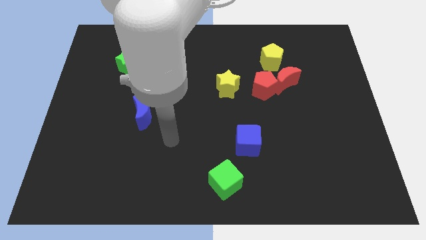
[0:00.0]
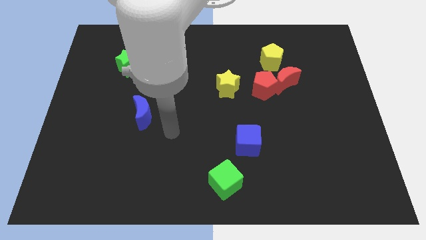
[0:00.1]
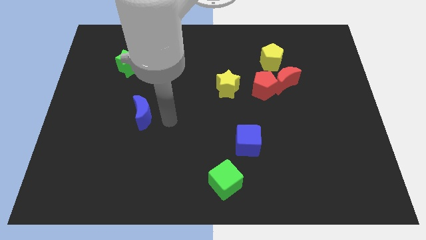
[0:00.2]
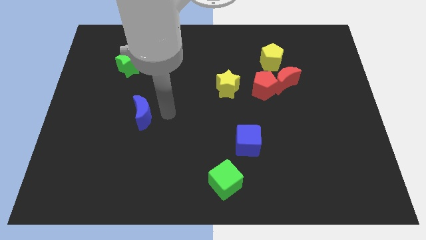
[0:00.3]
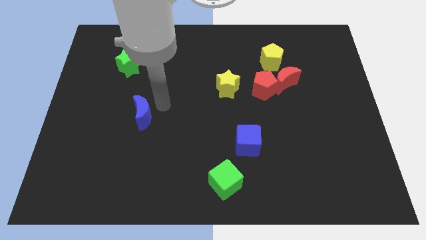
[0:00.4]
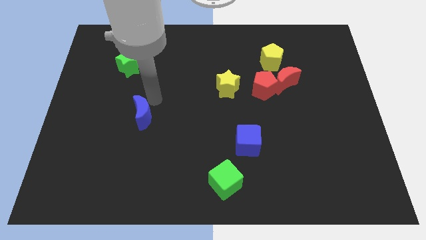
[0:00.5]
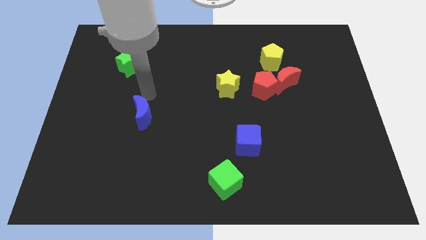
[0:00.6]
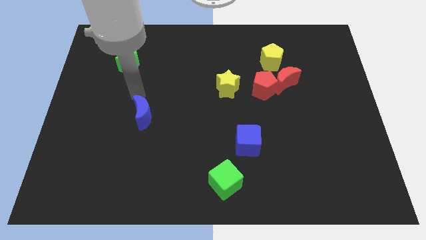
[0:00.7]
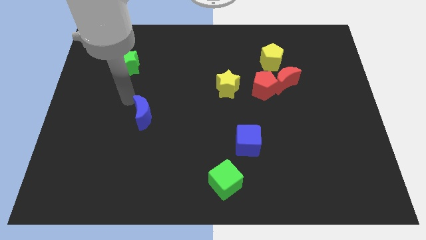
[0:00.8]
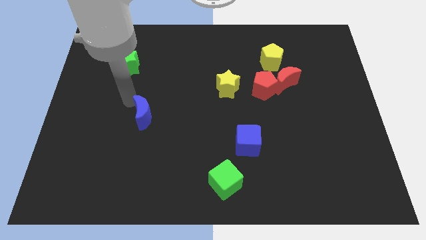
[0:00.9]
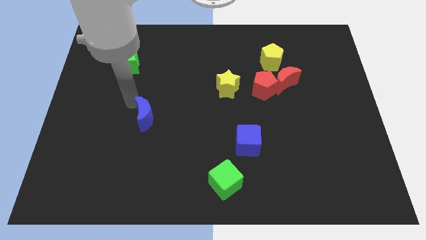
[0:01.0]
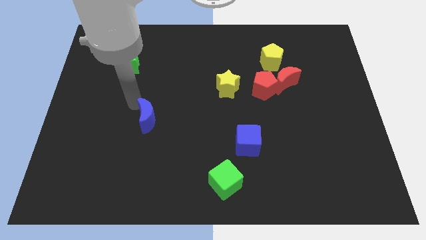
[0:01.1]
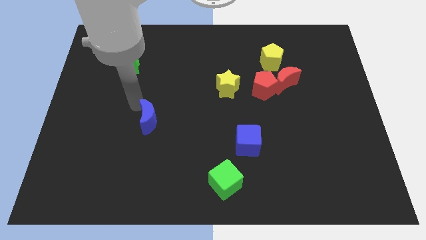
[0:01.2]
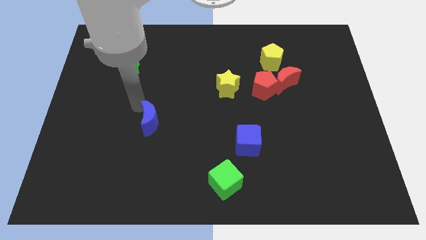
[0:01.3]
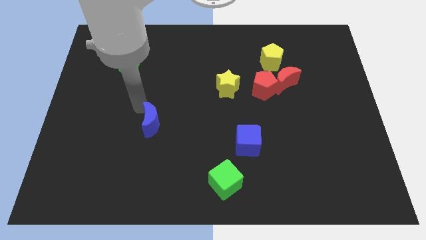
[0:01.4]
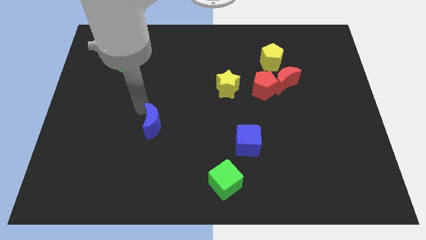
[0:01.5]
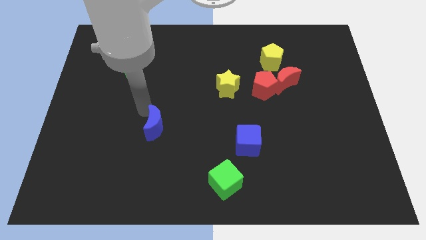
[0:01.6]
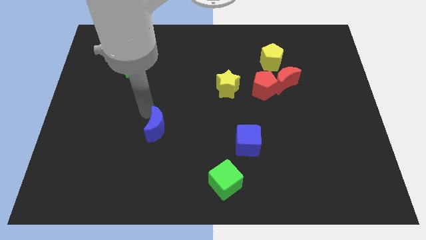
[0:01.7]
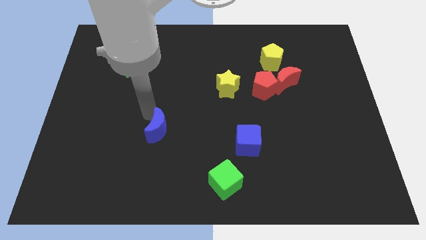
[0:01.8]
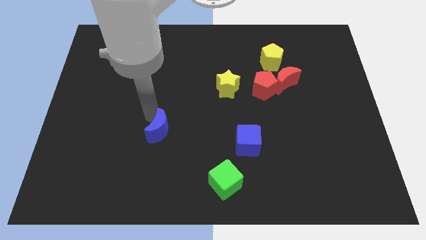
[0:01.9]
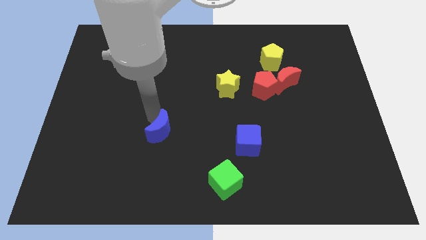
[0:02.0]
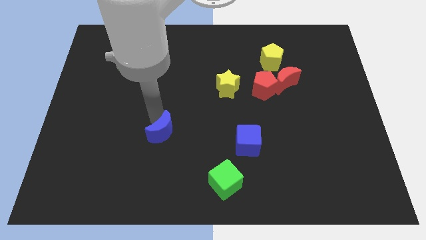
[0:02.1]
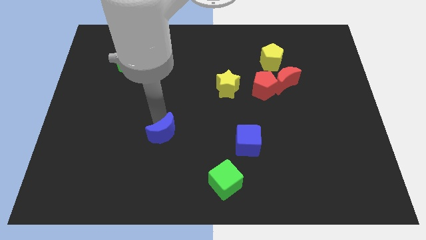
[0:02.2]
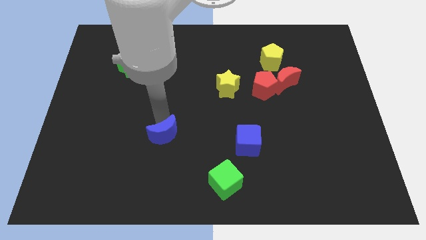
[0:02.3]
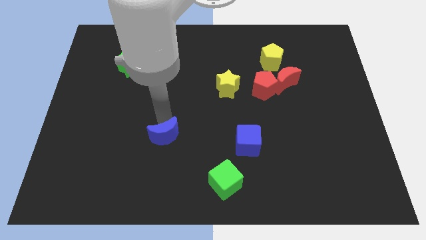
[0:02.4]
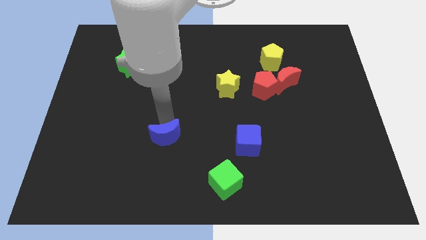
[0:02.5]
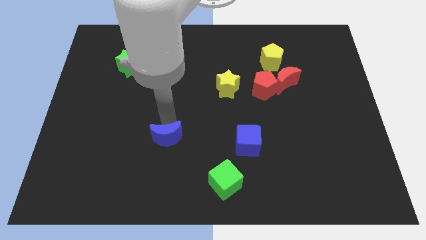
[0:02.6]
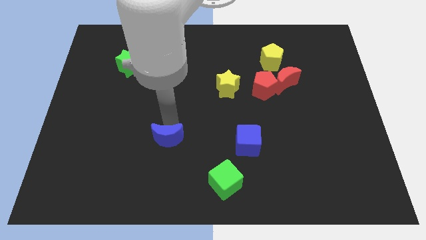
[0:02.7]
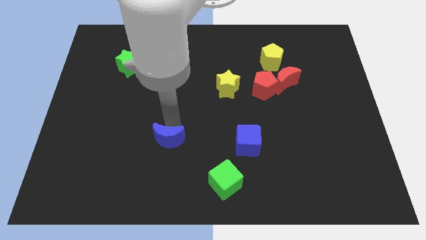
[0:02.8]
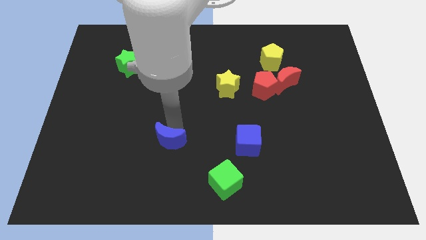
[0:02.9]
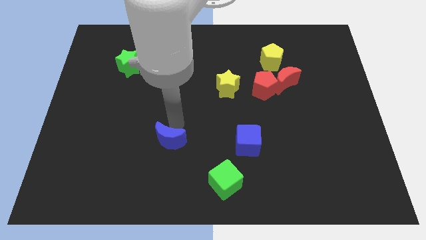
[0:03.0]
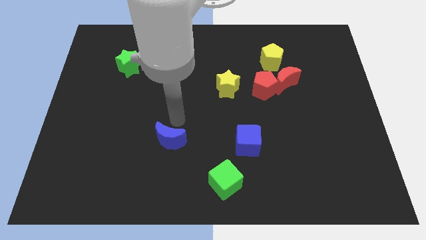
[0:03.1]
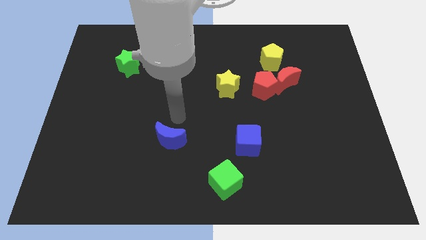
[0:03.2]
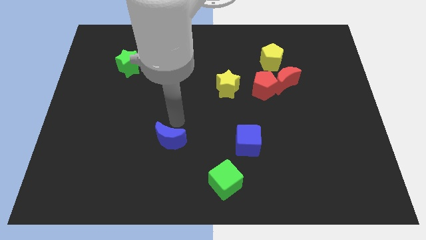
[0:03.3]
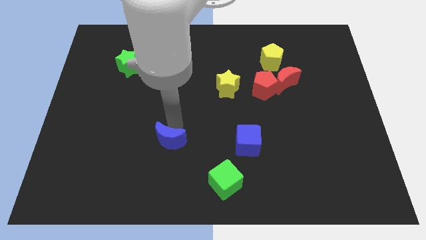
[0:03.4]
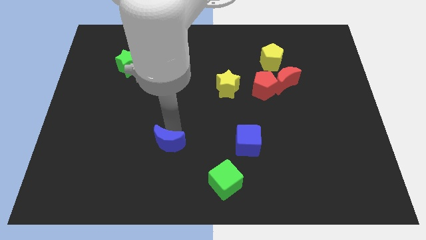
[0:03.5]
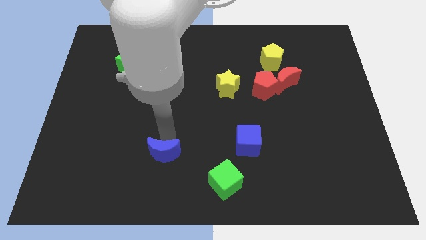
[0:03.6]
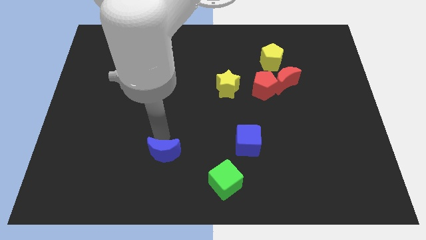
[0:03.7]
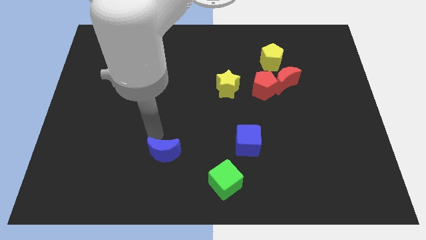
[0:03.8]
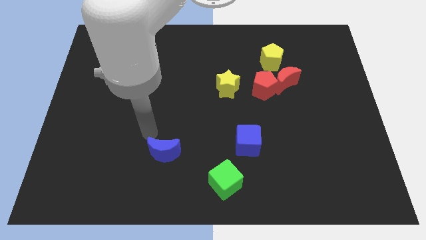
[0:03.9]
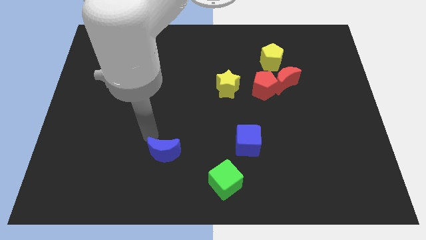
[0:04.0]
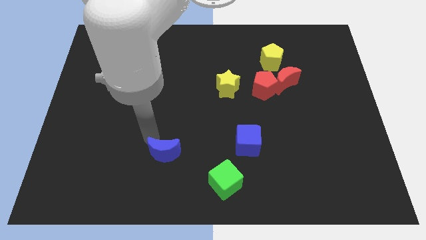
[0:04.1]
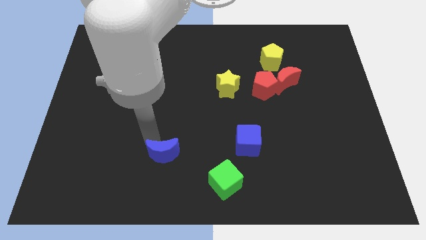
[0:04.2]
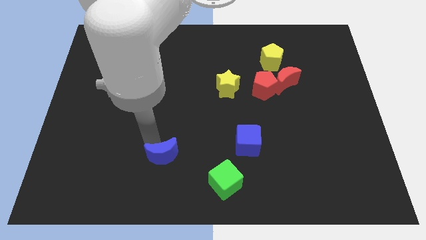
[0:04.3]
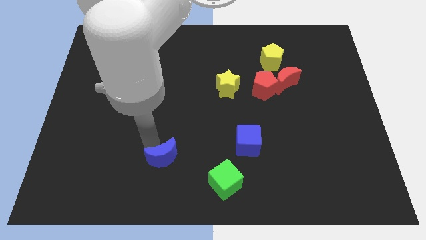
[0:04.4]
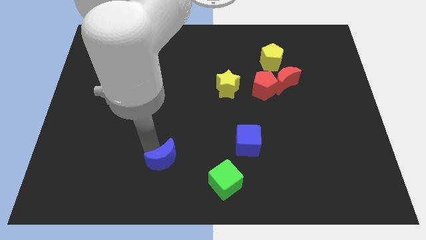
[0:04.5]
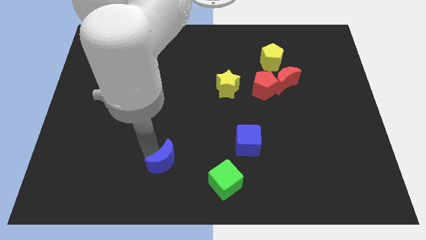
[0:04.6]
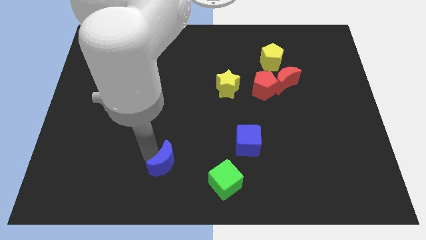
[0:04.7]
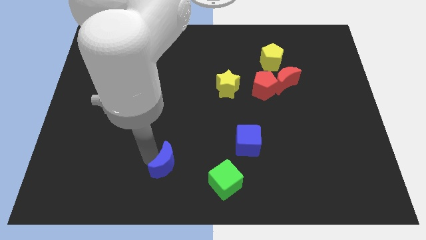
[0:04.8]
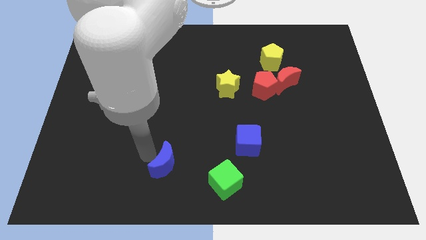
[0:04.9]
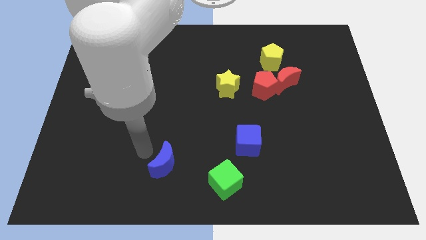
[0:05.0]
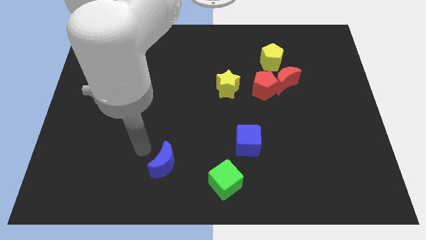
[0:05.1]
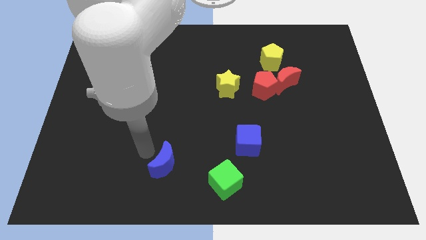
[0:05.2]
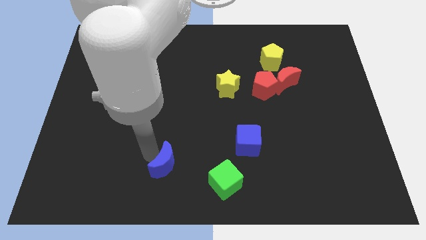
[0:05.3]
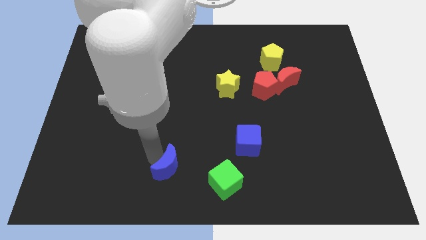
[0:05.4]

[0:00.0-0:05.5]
move the blue moon to the bottom

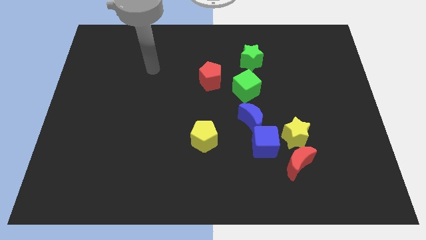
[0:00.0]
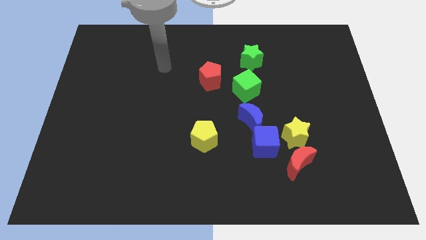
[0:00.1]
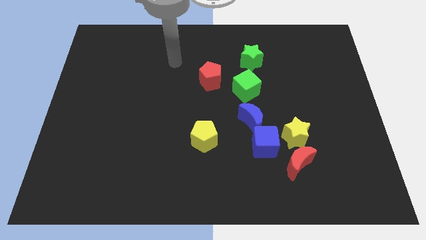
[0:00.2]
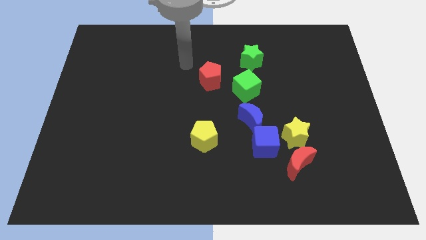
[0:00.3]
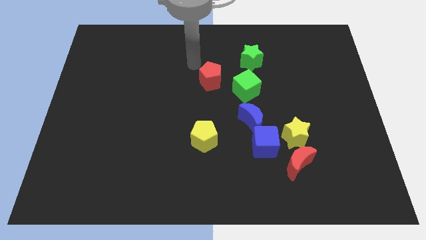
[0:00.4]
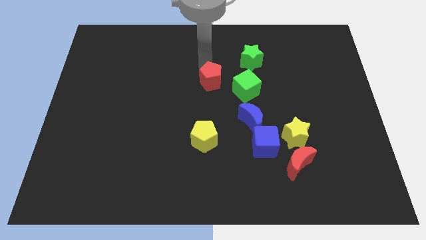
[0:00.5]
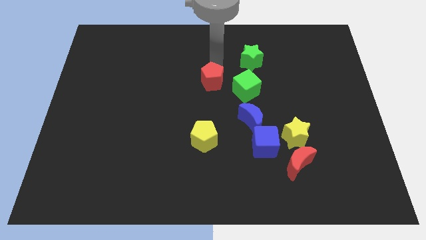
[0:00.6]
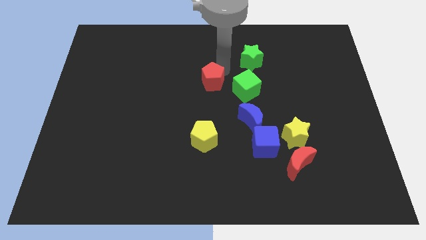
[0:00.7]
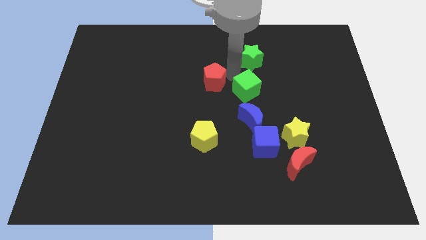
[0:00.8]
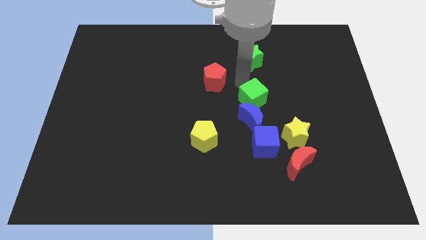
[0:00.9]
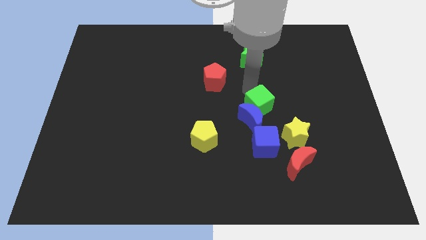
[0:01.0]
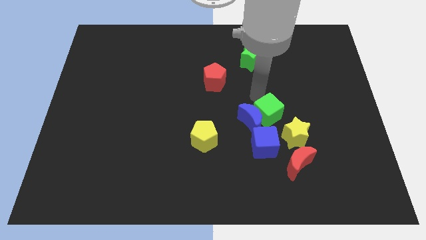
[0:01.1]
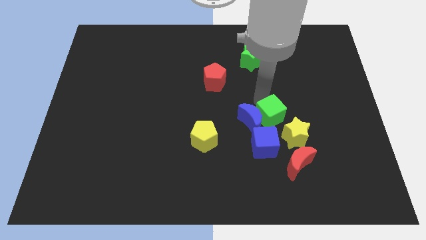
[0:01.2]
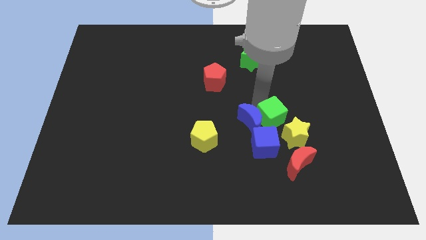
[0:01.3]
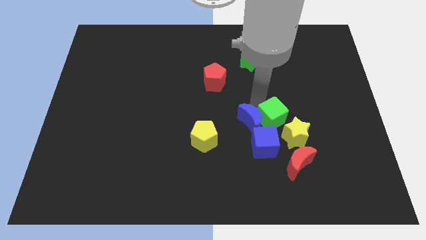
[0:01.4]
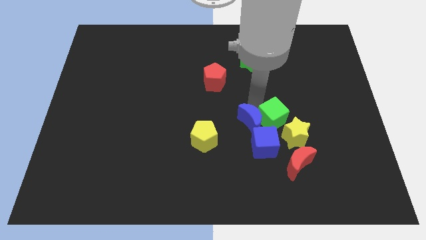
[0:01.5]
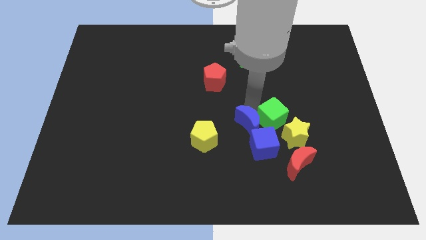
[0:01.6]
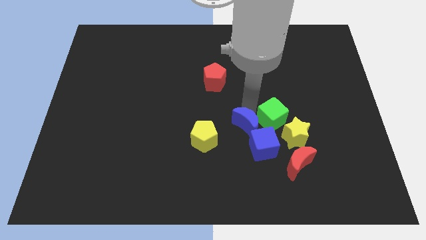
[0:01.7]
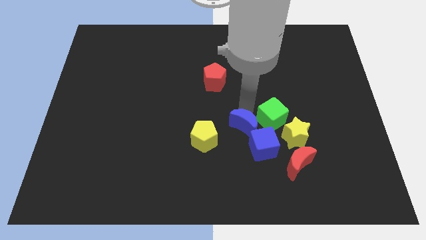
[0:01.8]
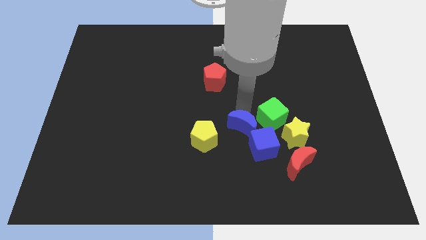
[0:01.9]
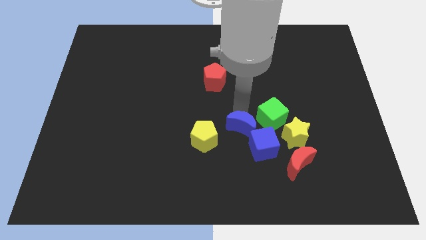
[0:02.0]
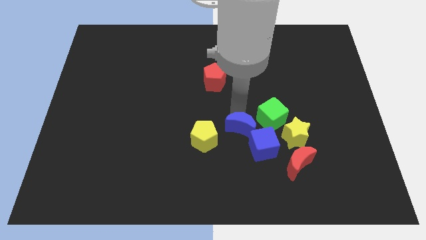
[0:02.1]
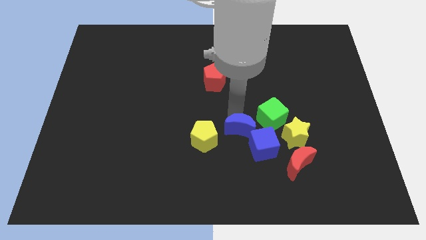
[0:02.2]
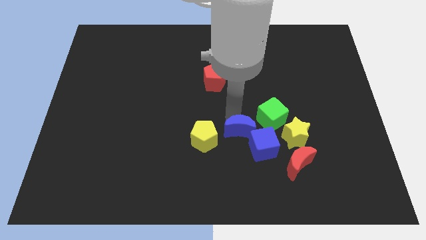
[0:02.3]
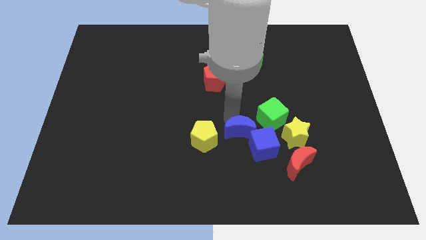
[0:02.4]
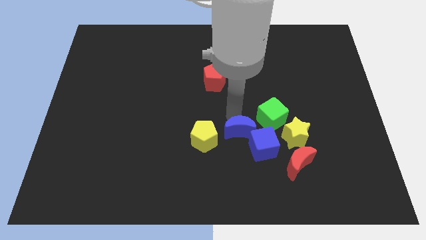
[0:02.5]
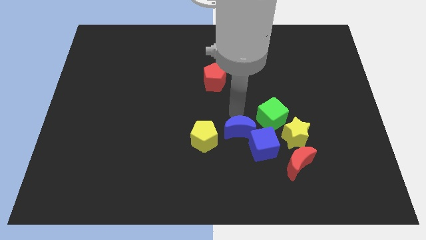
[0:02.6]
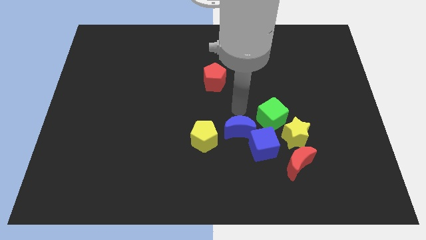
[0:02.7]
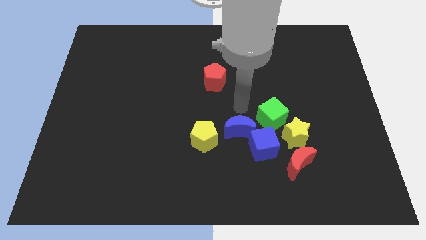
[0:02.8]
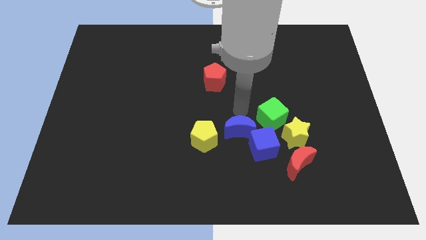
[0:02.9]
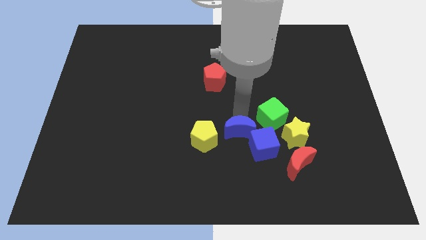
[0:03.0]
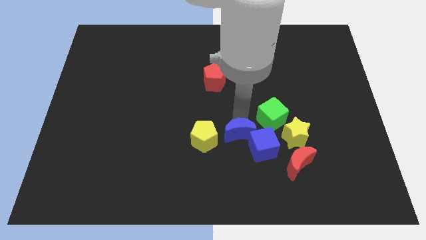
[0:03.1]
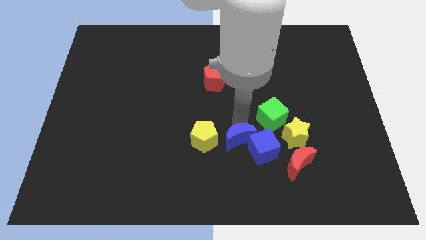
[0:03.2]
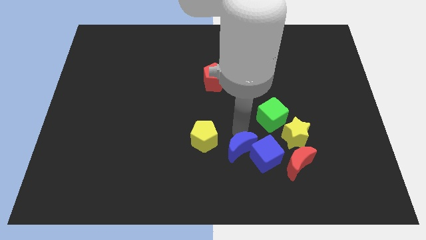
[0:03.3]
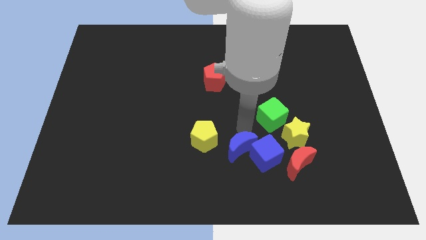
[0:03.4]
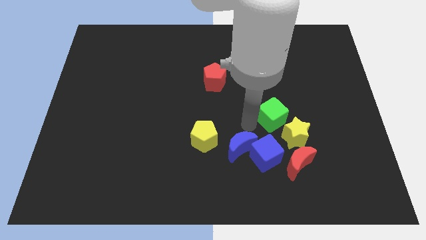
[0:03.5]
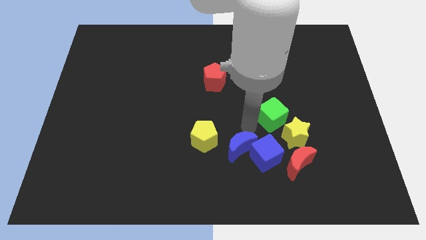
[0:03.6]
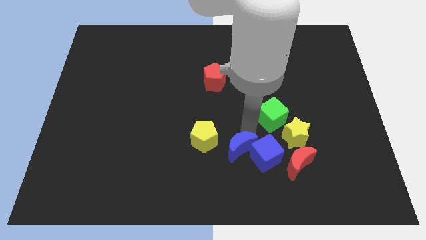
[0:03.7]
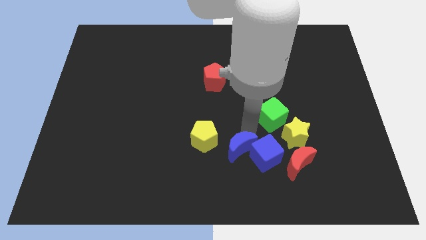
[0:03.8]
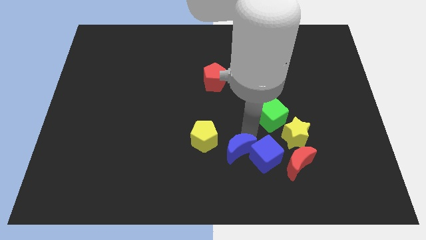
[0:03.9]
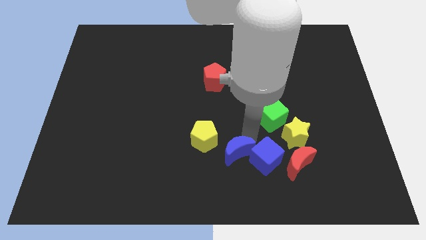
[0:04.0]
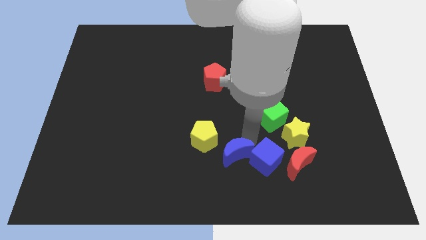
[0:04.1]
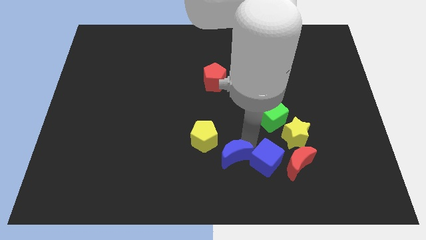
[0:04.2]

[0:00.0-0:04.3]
push the blue moon to the bottom
